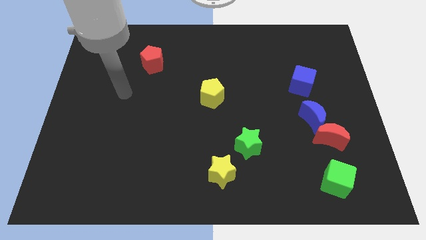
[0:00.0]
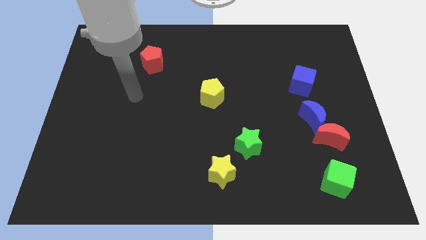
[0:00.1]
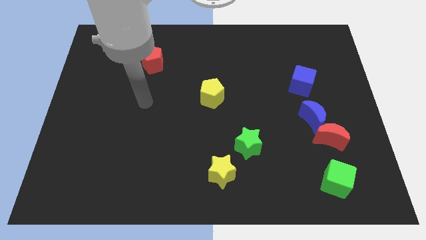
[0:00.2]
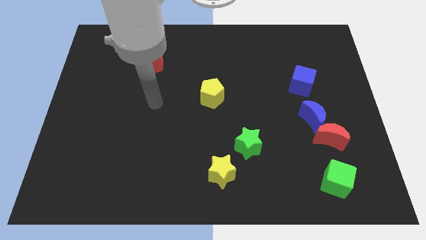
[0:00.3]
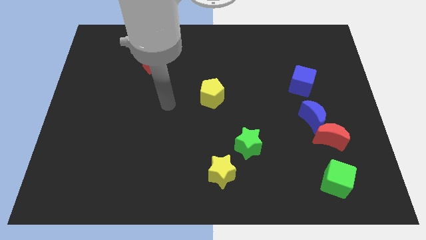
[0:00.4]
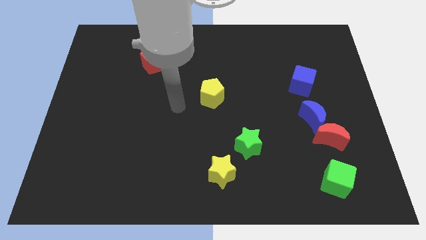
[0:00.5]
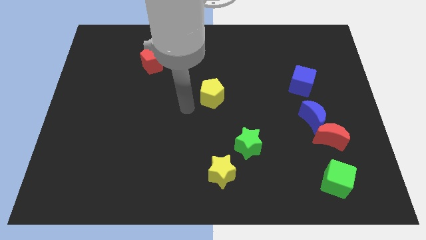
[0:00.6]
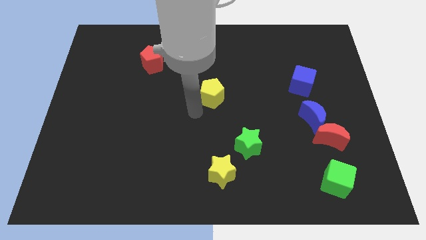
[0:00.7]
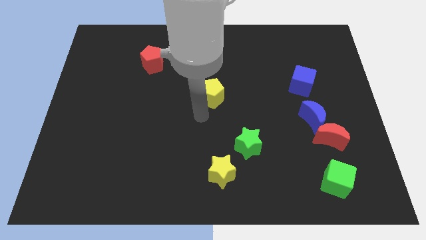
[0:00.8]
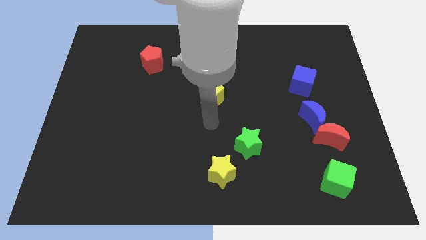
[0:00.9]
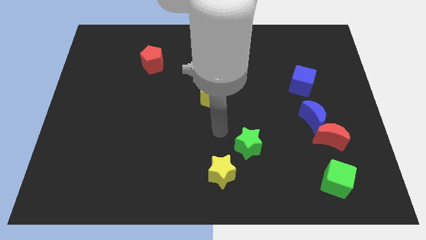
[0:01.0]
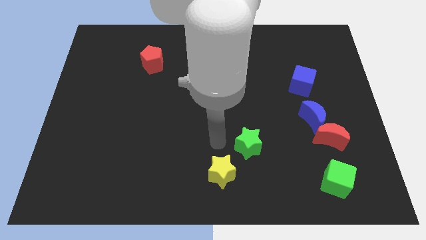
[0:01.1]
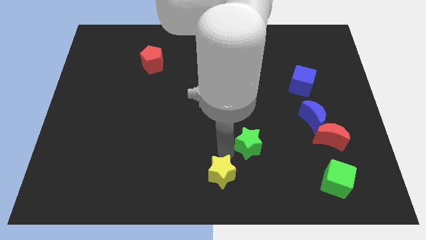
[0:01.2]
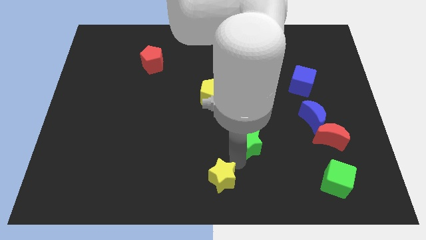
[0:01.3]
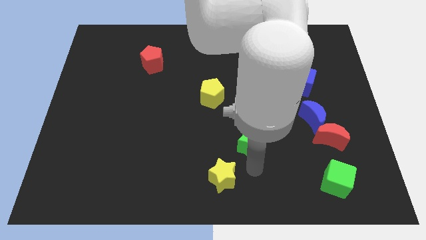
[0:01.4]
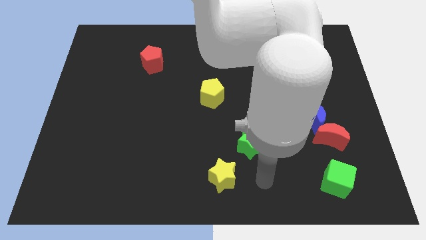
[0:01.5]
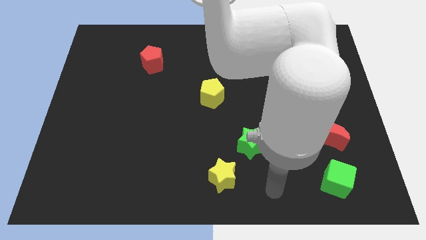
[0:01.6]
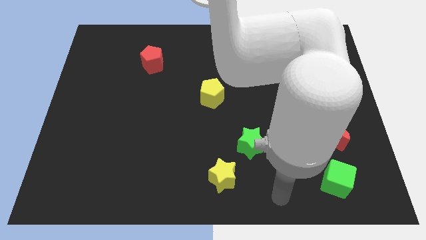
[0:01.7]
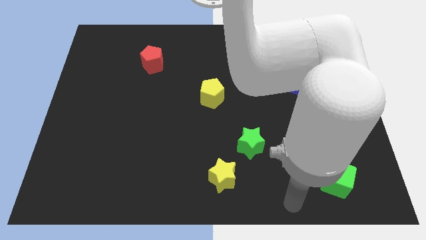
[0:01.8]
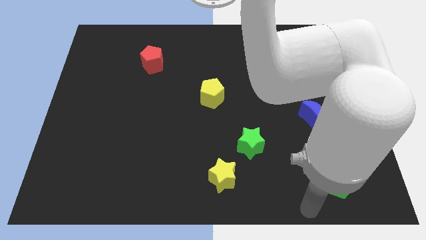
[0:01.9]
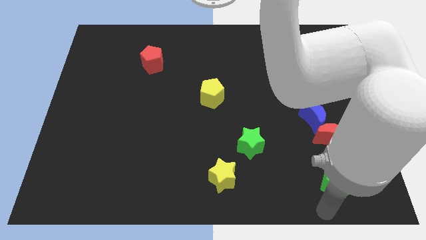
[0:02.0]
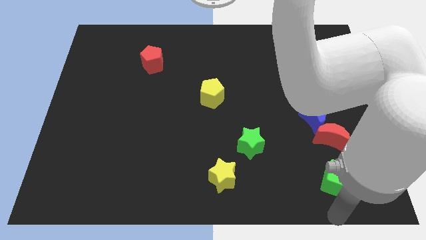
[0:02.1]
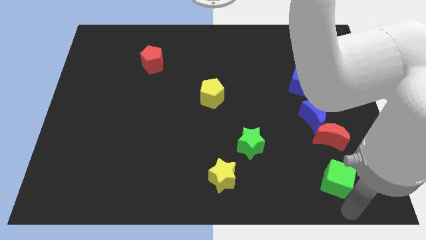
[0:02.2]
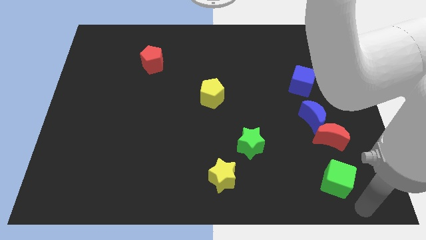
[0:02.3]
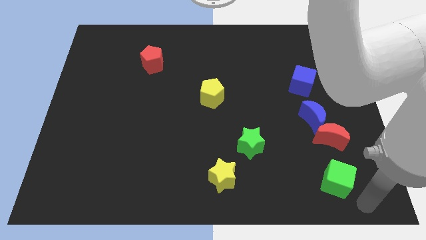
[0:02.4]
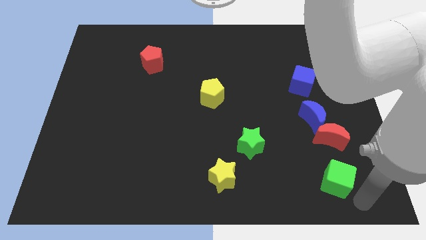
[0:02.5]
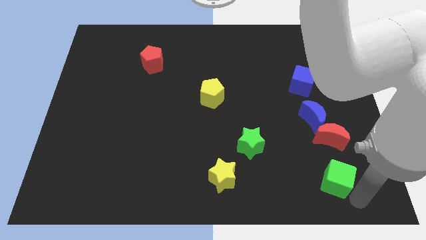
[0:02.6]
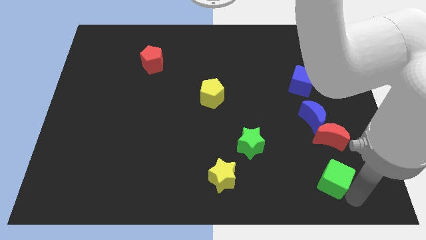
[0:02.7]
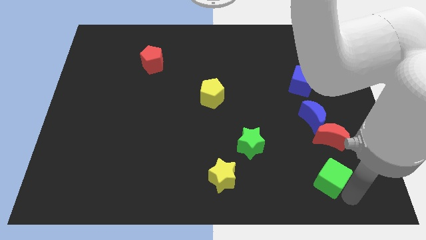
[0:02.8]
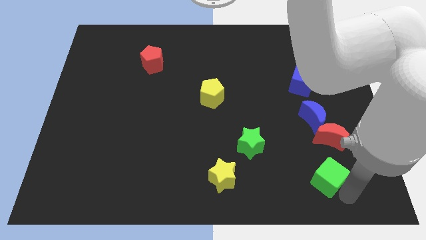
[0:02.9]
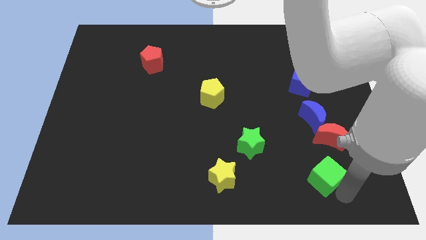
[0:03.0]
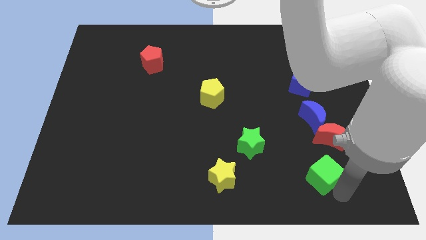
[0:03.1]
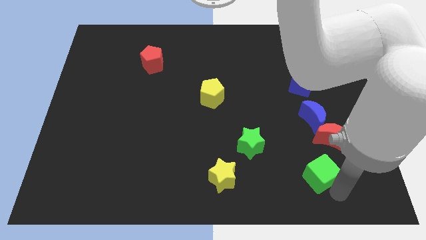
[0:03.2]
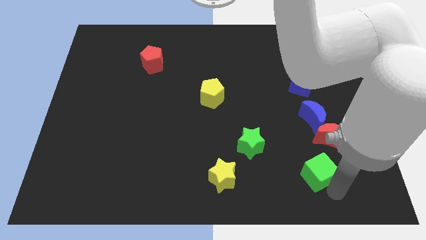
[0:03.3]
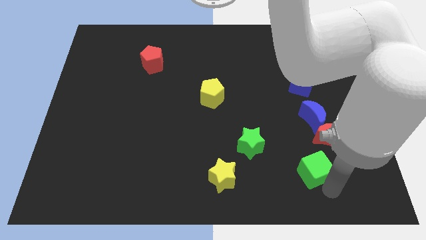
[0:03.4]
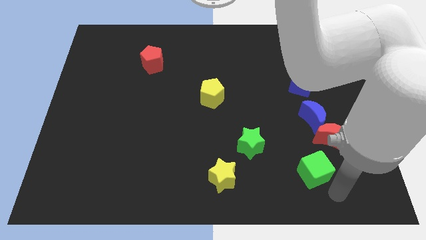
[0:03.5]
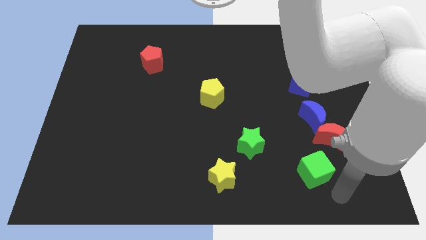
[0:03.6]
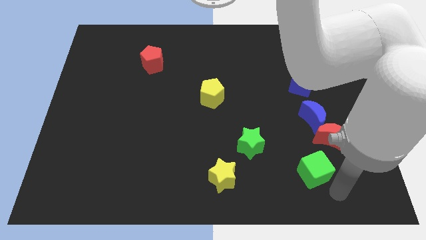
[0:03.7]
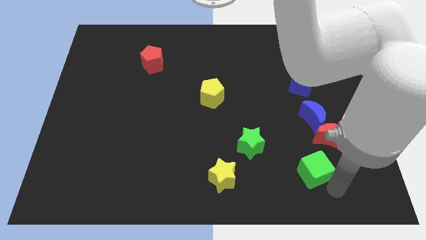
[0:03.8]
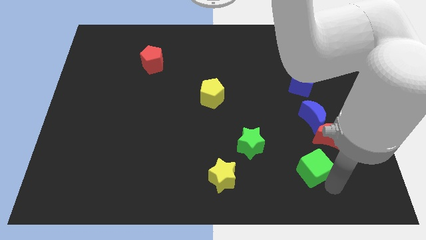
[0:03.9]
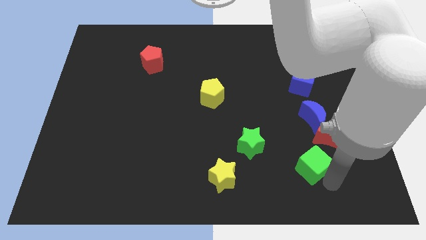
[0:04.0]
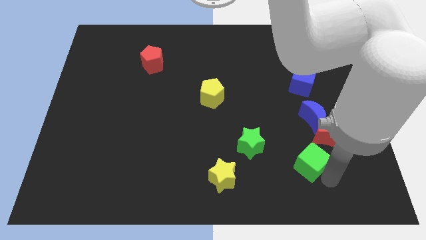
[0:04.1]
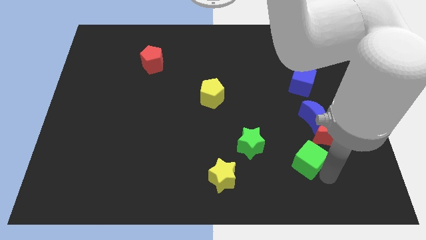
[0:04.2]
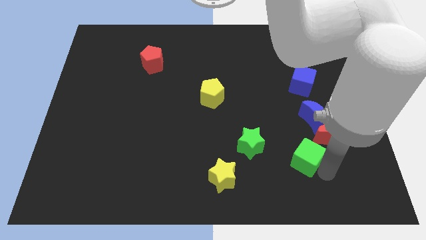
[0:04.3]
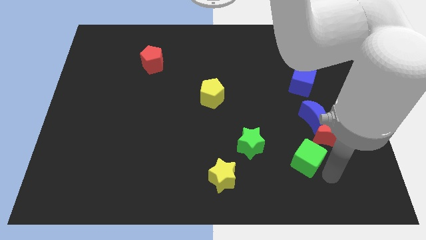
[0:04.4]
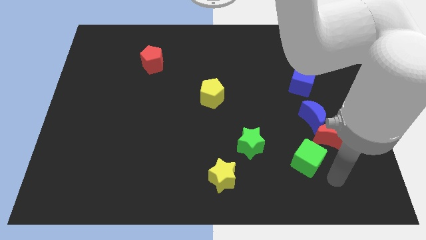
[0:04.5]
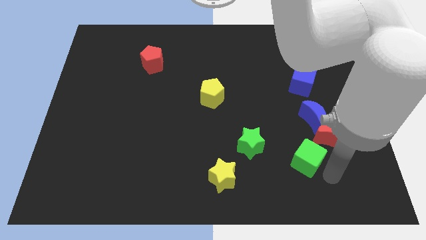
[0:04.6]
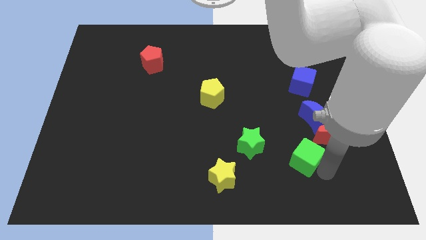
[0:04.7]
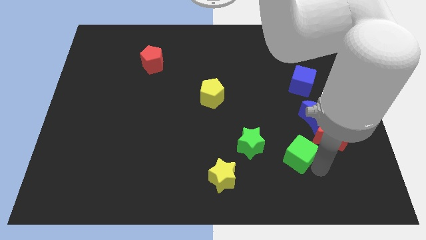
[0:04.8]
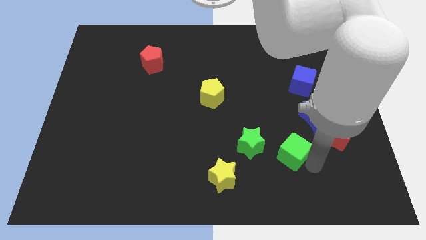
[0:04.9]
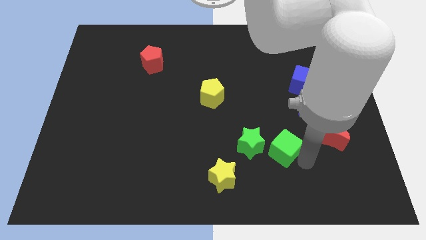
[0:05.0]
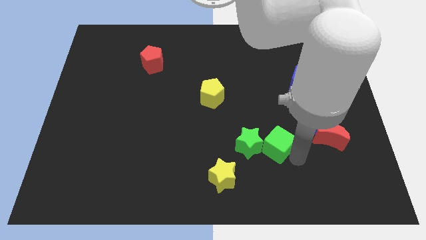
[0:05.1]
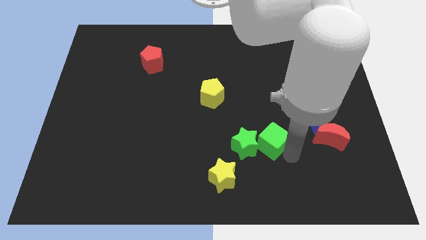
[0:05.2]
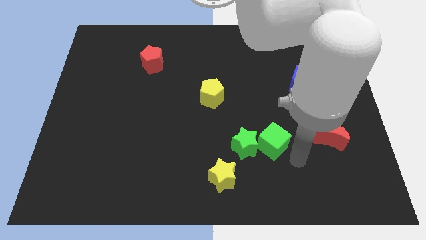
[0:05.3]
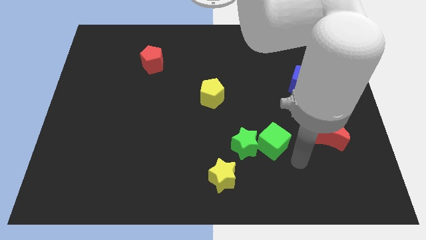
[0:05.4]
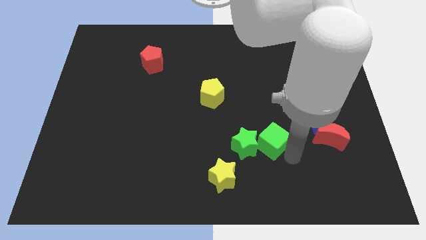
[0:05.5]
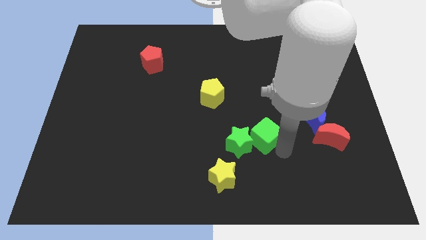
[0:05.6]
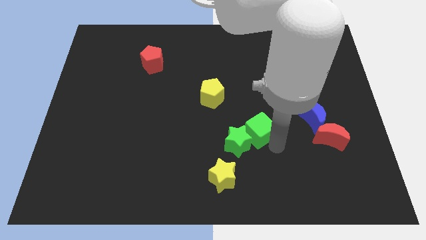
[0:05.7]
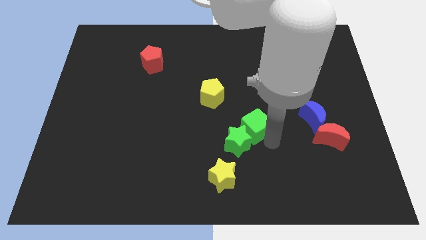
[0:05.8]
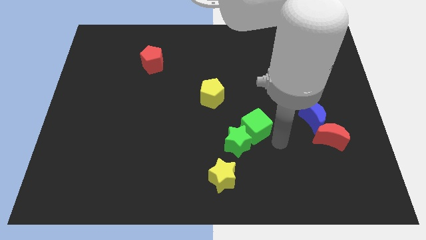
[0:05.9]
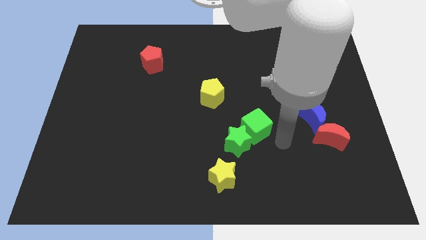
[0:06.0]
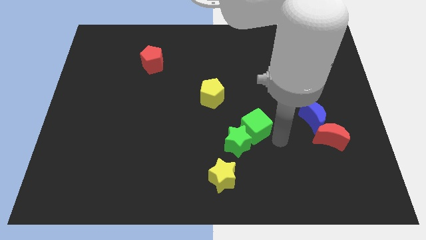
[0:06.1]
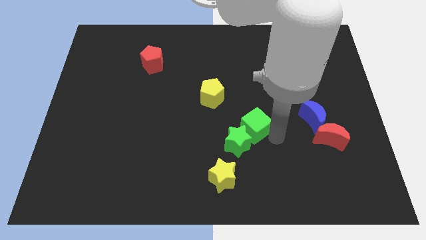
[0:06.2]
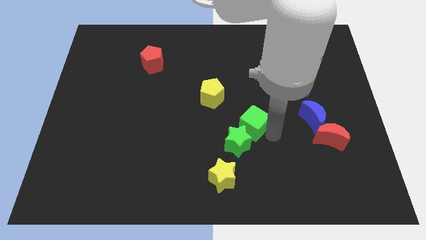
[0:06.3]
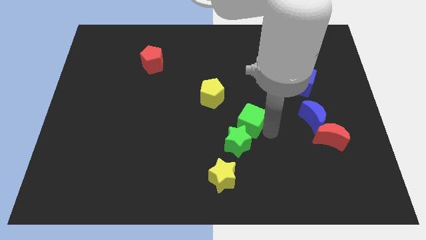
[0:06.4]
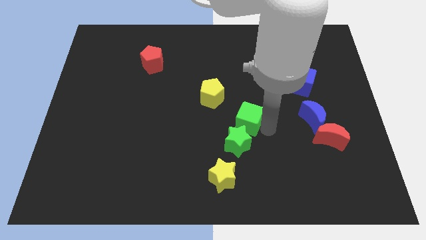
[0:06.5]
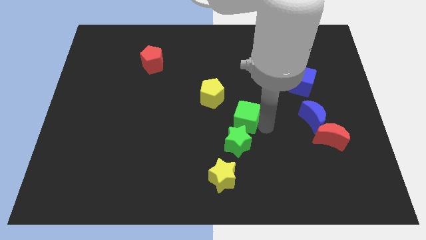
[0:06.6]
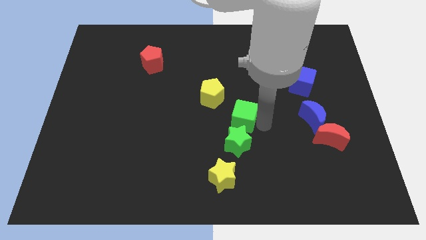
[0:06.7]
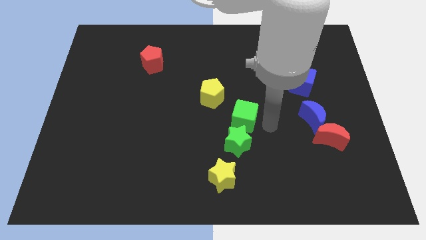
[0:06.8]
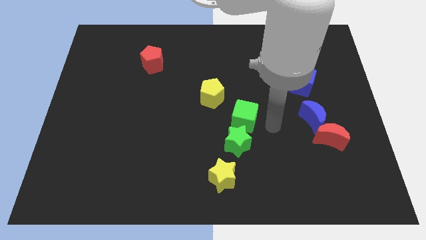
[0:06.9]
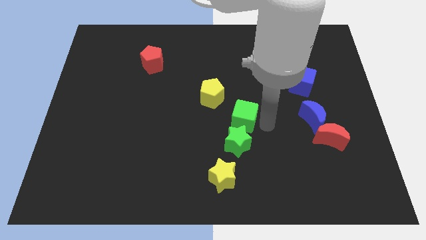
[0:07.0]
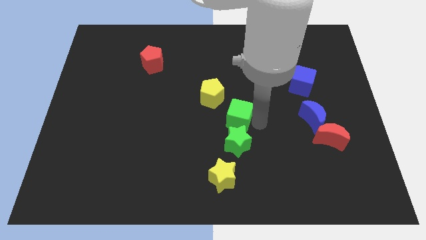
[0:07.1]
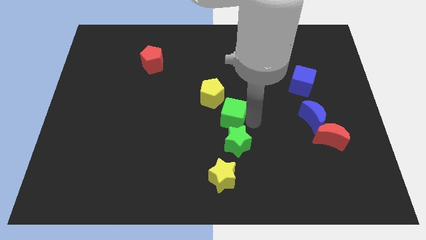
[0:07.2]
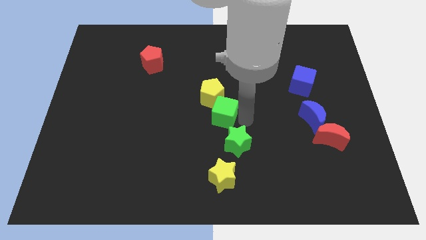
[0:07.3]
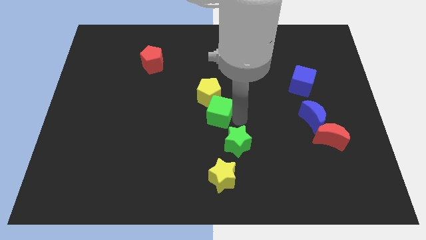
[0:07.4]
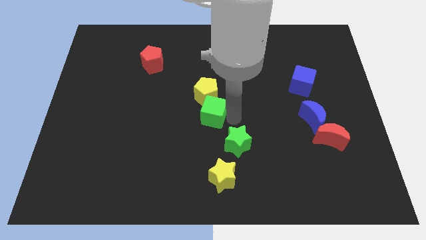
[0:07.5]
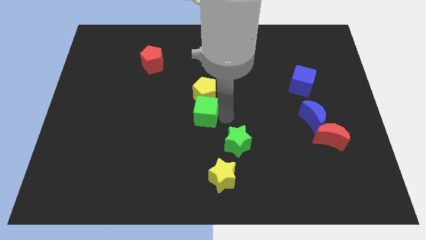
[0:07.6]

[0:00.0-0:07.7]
move the green cube to the bottom left of the yellow pentagon
